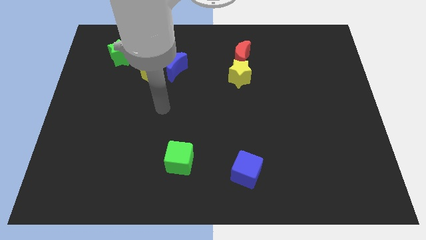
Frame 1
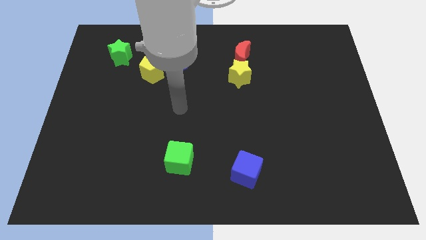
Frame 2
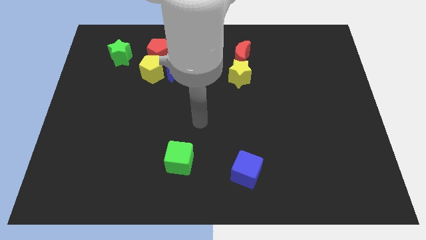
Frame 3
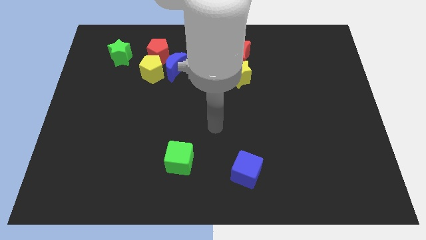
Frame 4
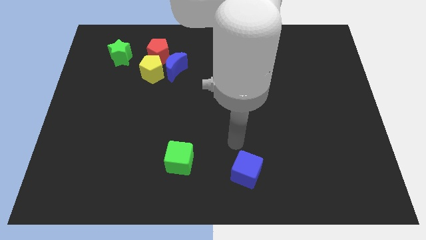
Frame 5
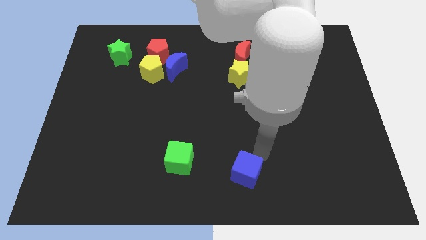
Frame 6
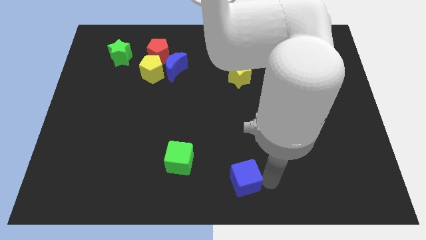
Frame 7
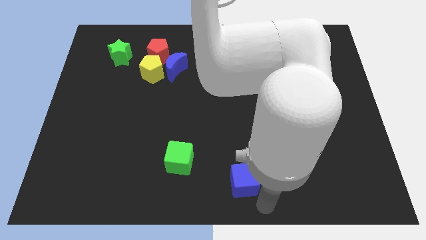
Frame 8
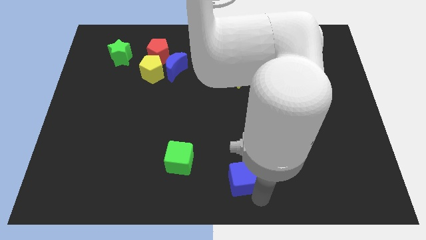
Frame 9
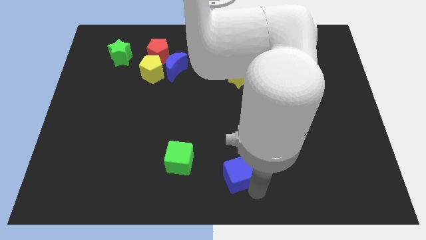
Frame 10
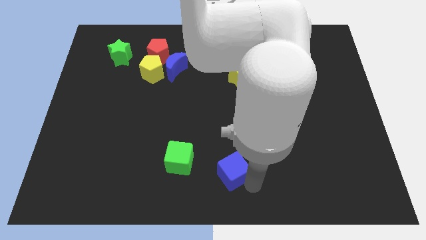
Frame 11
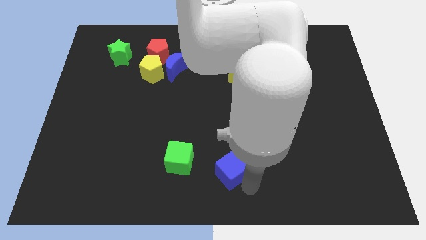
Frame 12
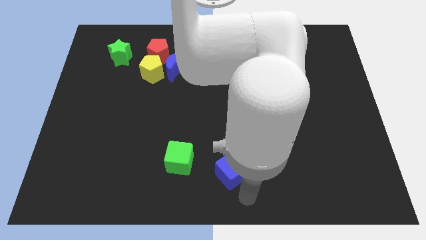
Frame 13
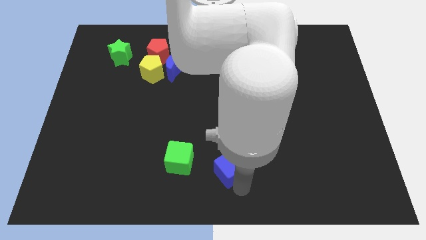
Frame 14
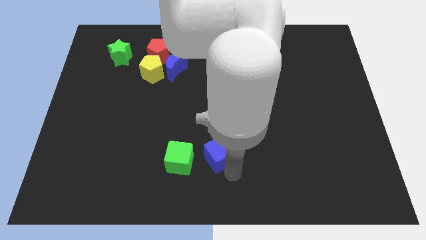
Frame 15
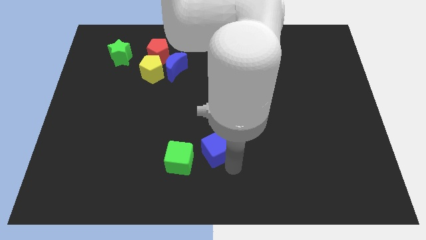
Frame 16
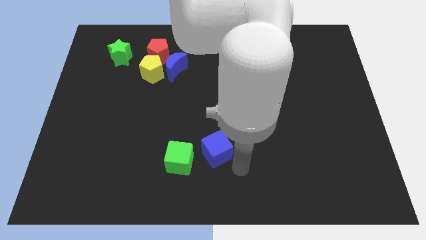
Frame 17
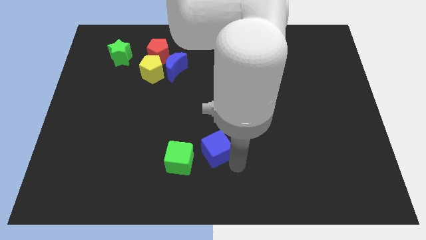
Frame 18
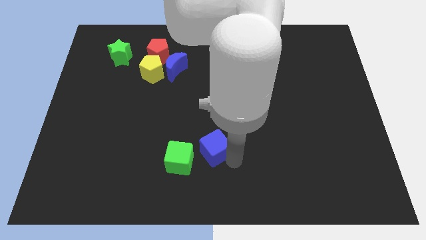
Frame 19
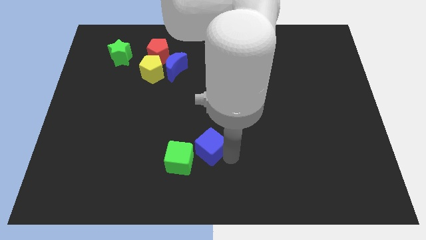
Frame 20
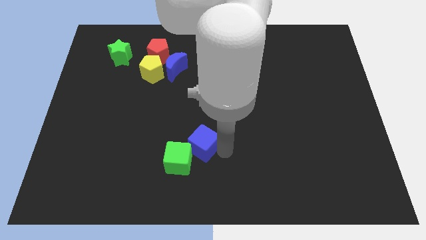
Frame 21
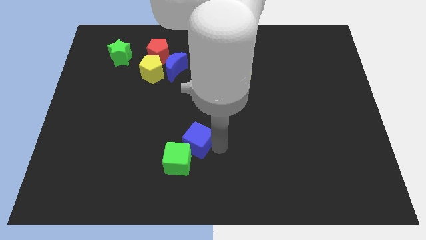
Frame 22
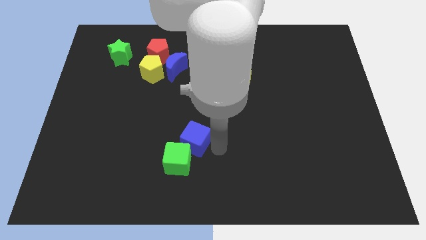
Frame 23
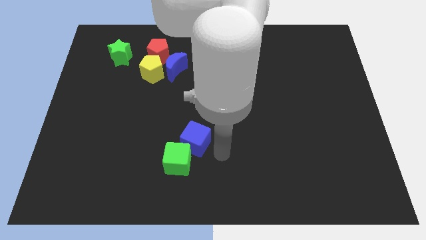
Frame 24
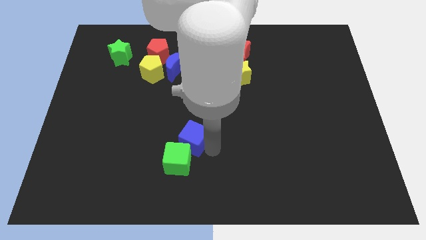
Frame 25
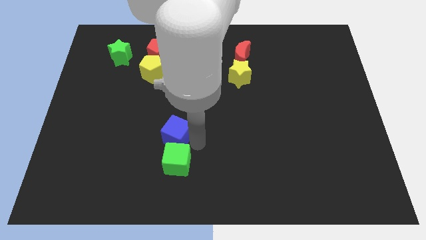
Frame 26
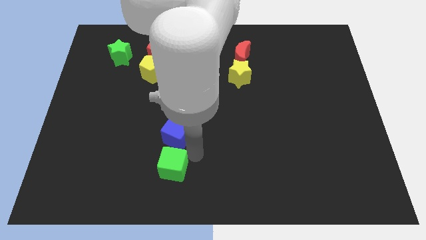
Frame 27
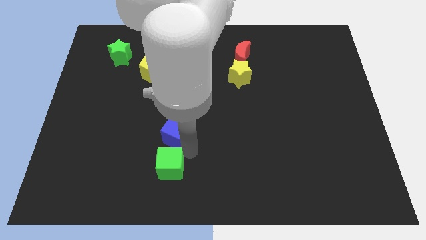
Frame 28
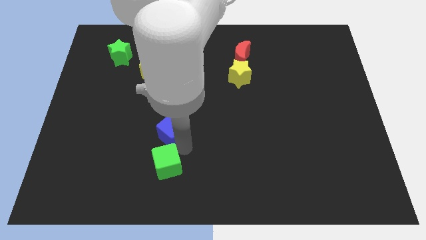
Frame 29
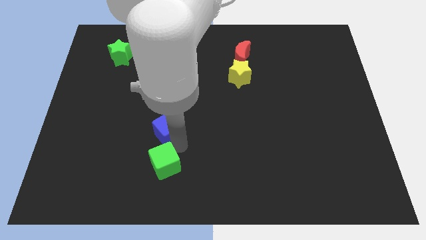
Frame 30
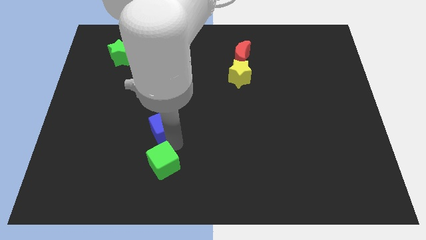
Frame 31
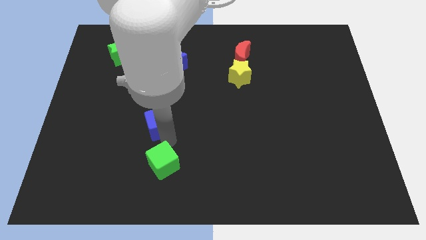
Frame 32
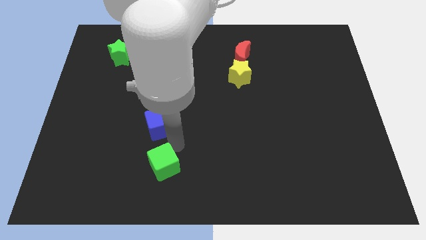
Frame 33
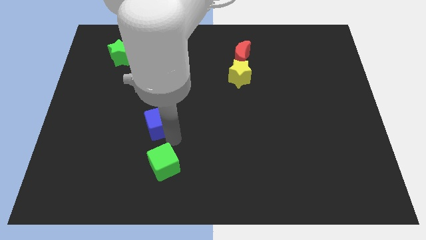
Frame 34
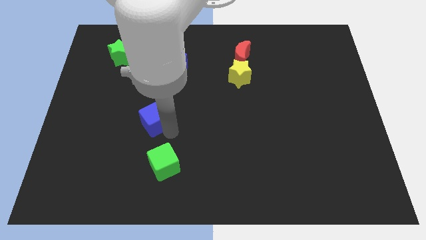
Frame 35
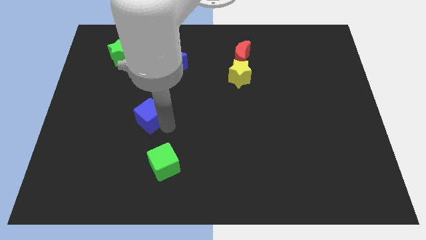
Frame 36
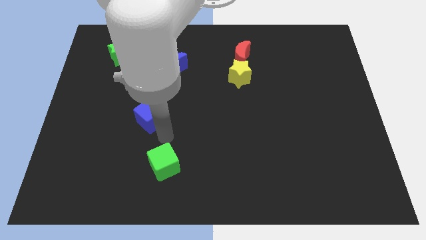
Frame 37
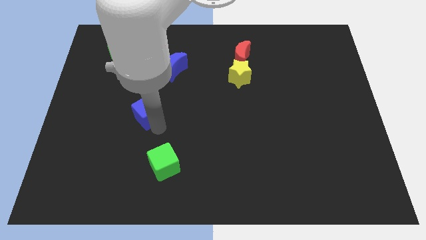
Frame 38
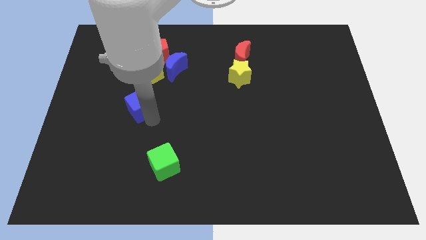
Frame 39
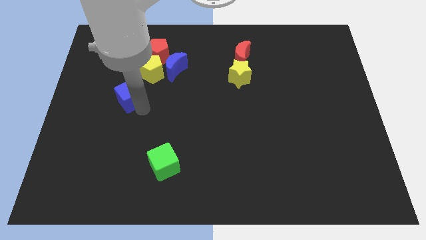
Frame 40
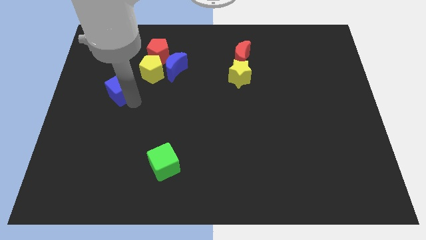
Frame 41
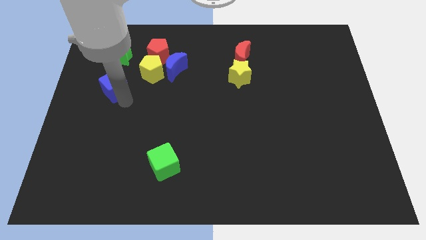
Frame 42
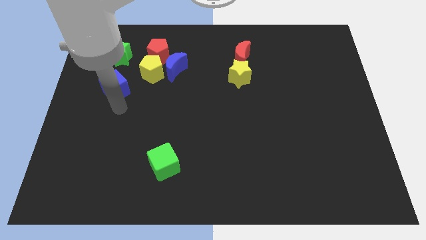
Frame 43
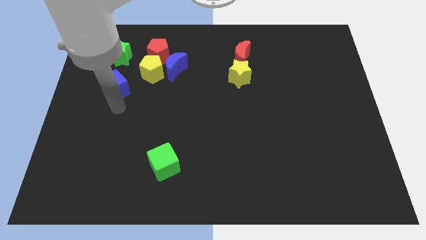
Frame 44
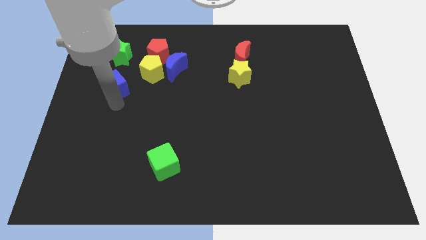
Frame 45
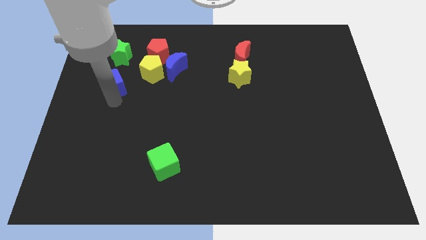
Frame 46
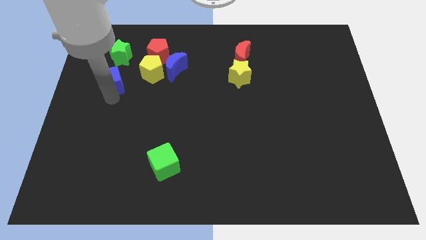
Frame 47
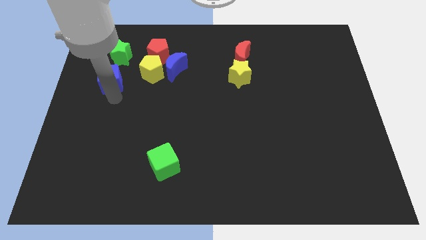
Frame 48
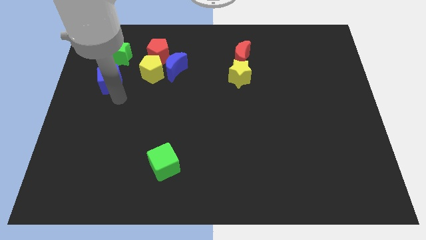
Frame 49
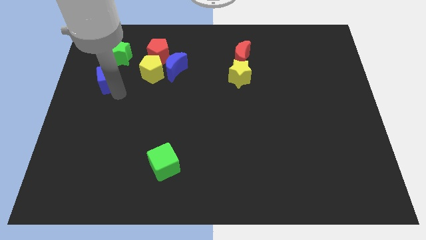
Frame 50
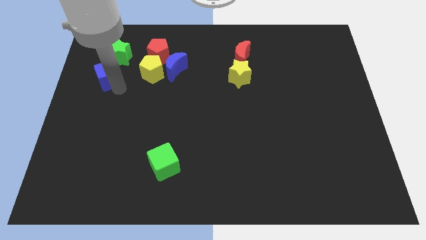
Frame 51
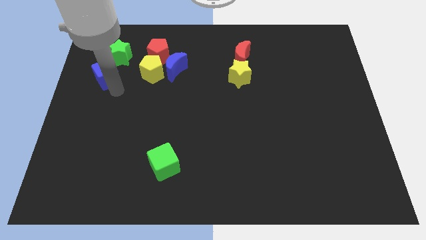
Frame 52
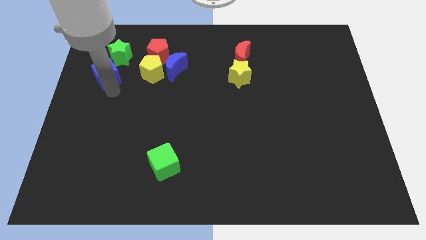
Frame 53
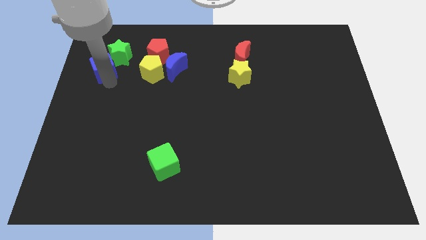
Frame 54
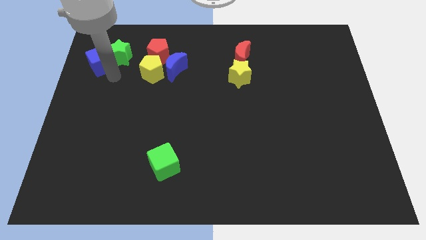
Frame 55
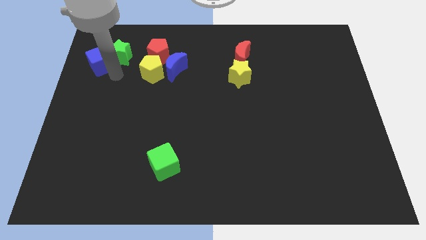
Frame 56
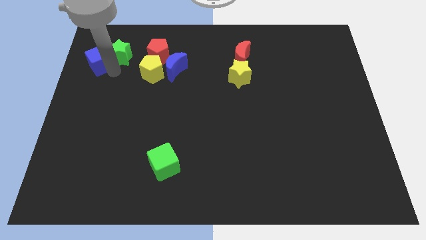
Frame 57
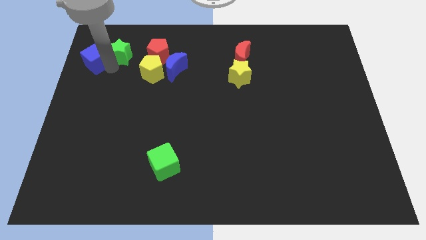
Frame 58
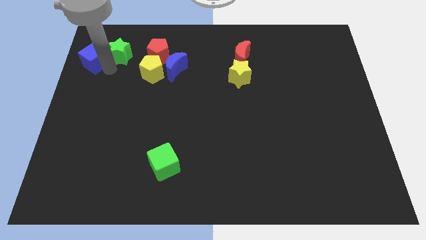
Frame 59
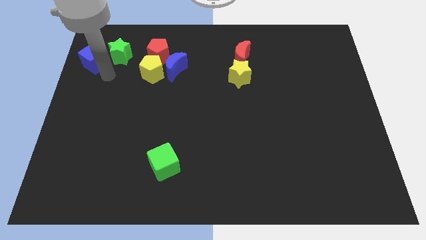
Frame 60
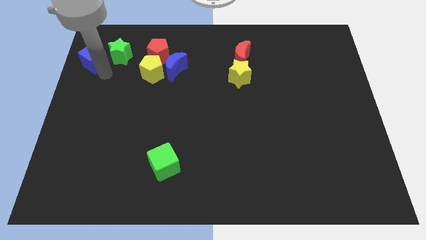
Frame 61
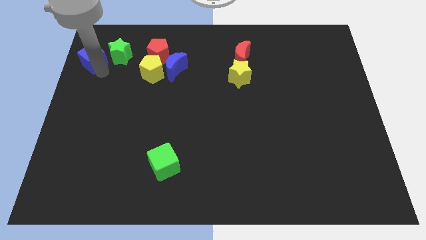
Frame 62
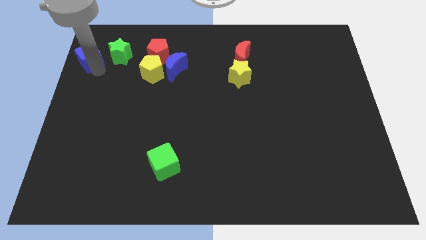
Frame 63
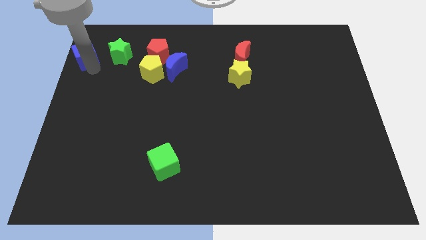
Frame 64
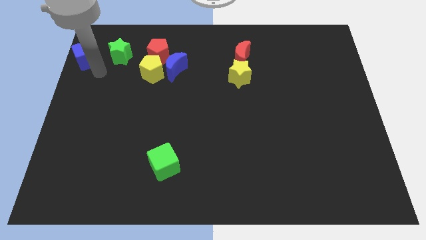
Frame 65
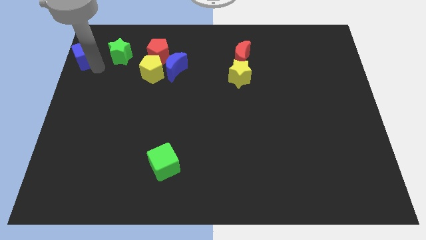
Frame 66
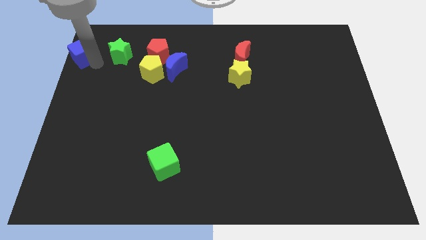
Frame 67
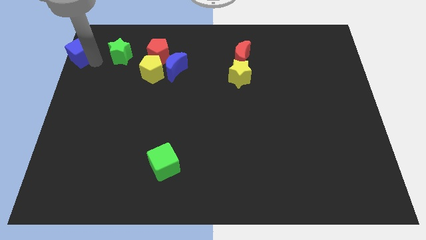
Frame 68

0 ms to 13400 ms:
push the blue cube to the top left of the board
